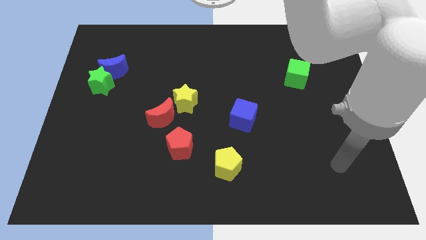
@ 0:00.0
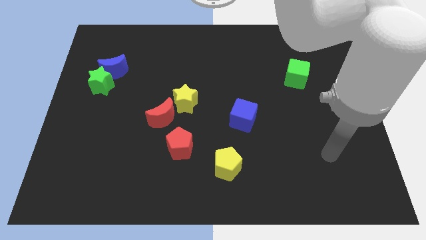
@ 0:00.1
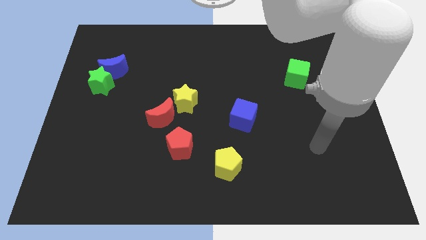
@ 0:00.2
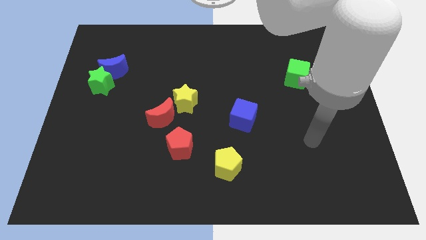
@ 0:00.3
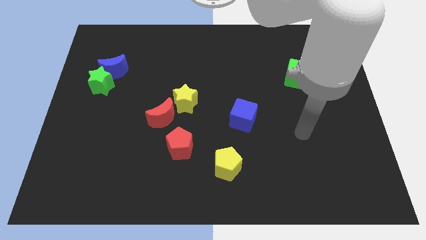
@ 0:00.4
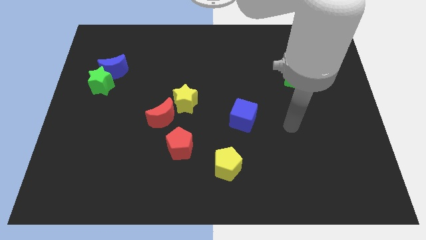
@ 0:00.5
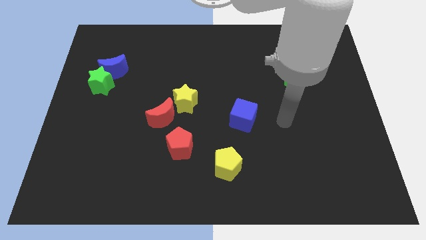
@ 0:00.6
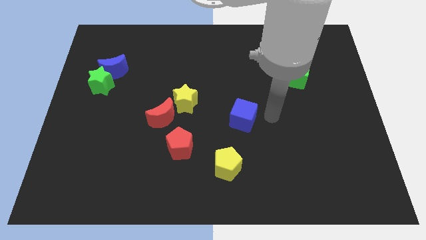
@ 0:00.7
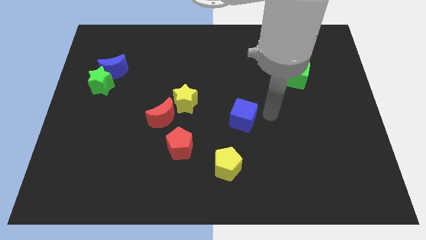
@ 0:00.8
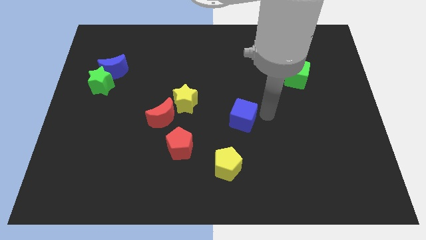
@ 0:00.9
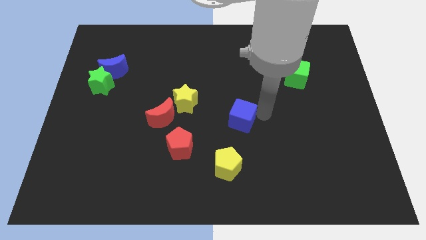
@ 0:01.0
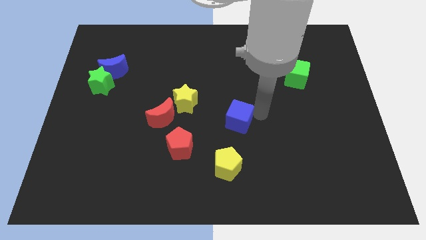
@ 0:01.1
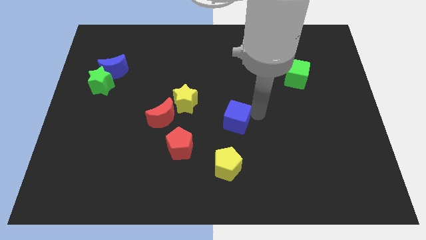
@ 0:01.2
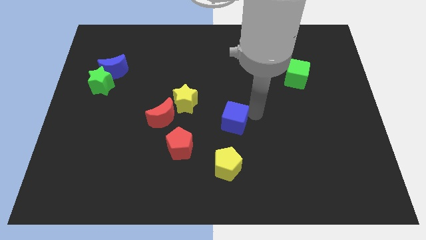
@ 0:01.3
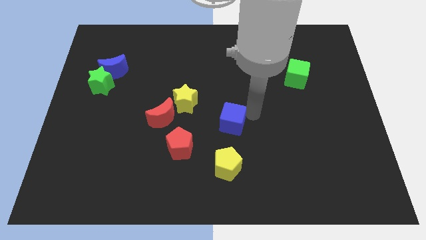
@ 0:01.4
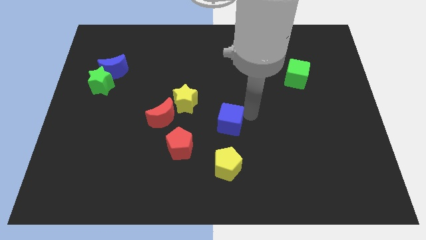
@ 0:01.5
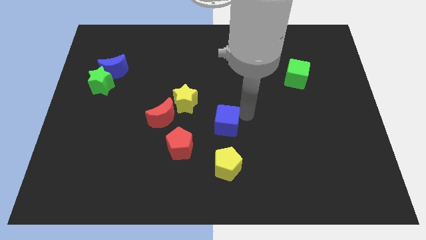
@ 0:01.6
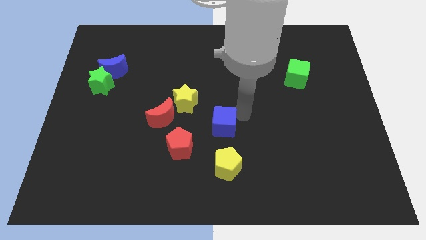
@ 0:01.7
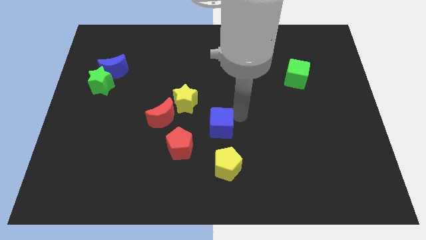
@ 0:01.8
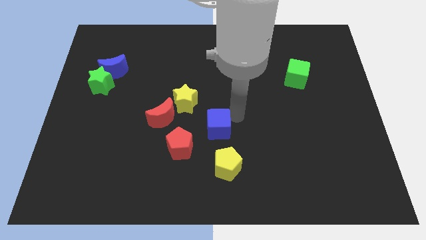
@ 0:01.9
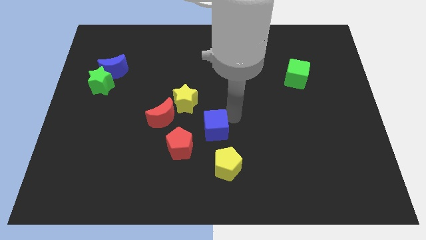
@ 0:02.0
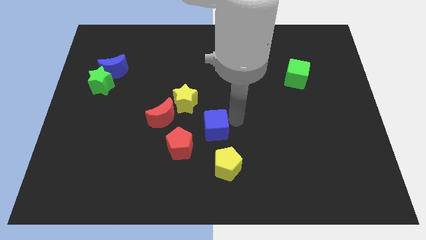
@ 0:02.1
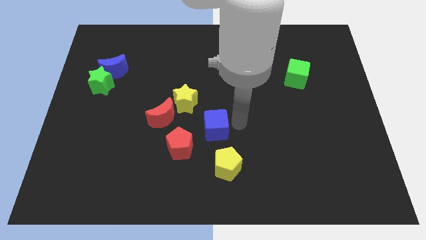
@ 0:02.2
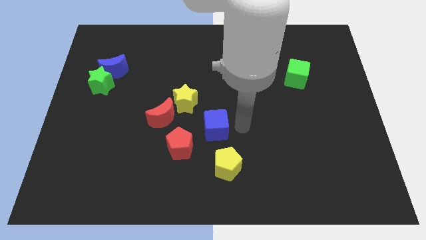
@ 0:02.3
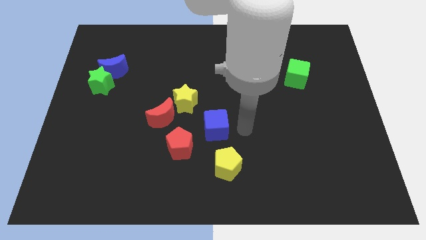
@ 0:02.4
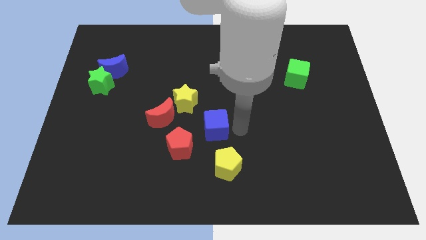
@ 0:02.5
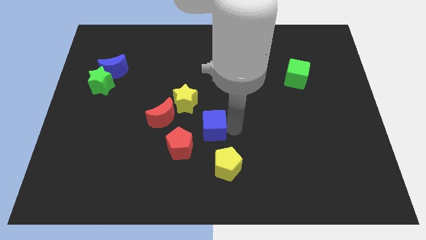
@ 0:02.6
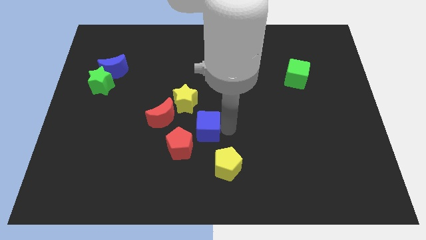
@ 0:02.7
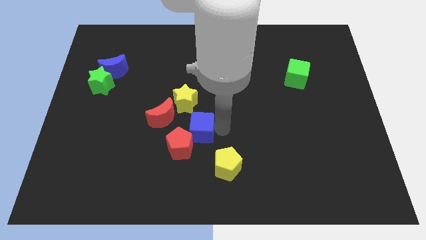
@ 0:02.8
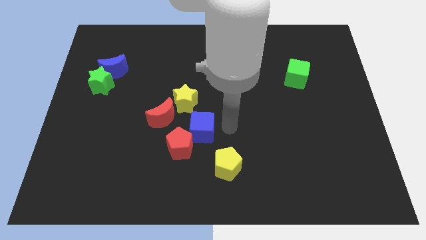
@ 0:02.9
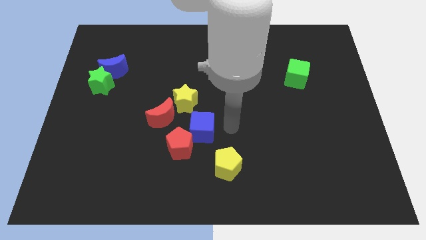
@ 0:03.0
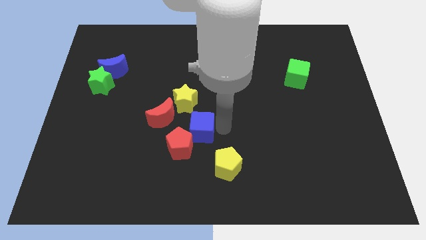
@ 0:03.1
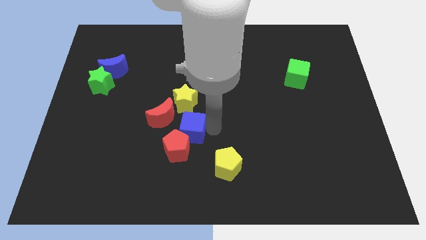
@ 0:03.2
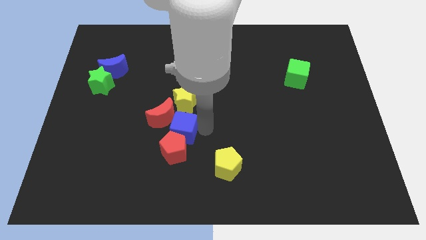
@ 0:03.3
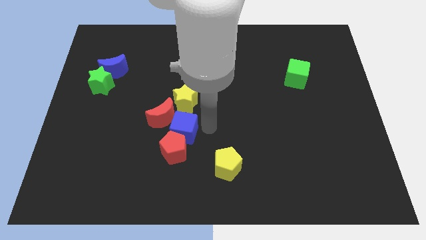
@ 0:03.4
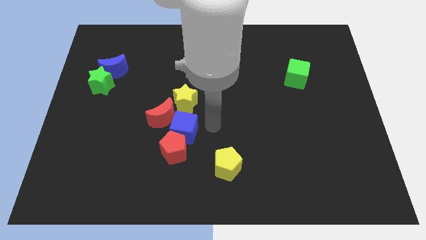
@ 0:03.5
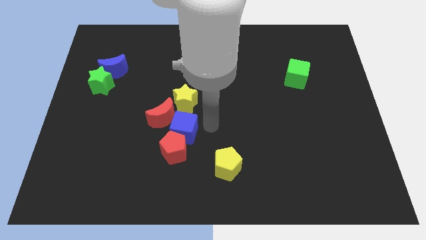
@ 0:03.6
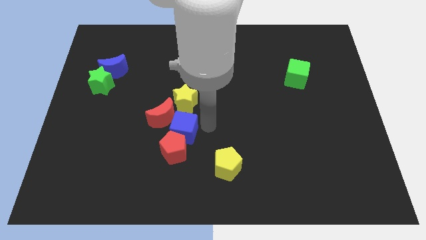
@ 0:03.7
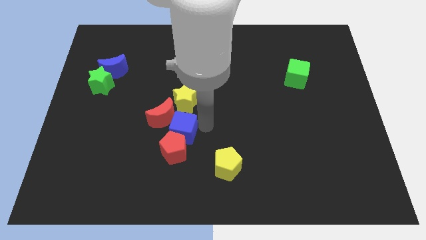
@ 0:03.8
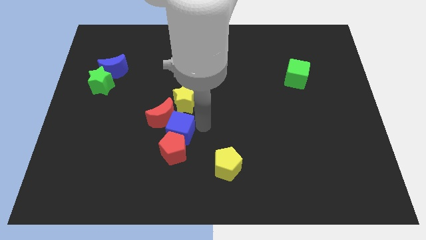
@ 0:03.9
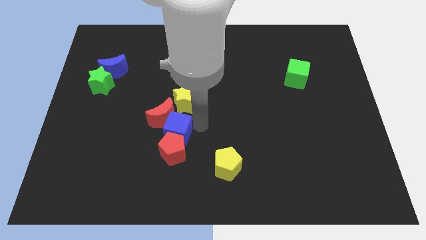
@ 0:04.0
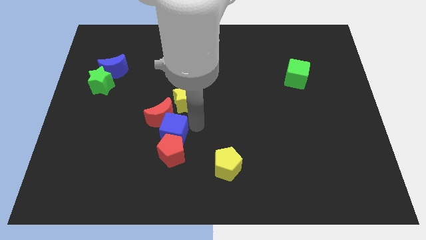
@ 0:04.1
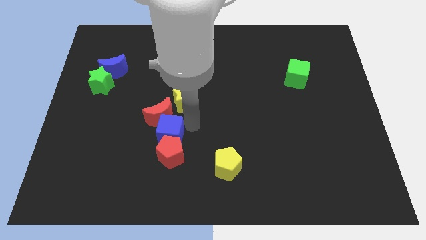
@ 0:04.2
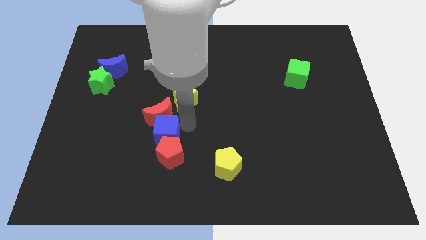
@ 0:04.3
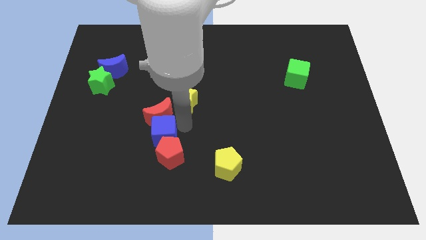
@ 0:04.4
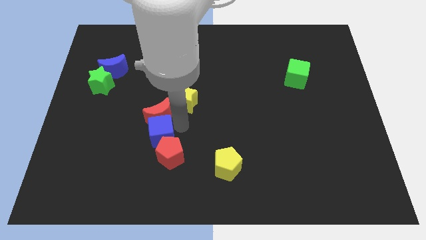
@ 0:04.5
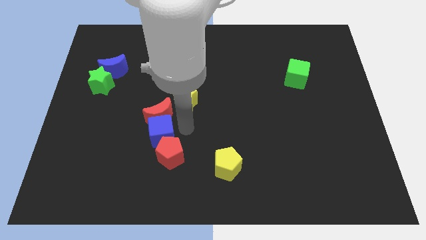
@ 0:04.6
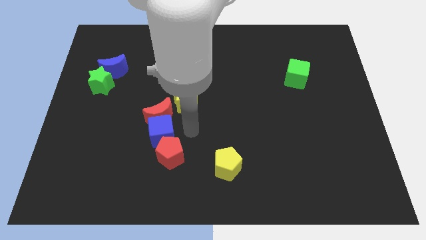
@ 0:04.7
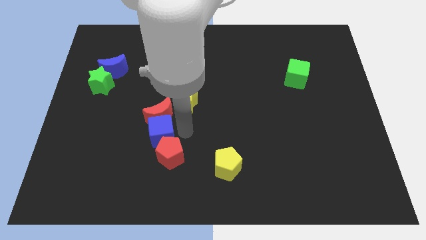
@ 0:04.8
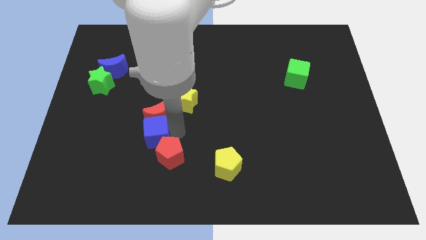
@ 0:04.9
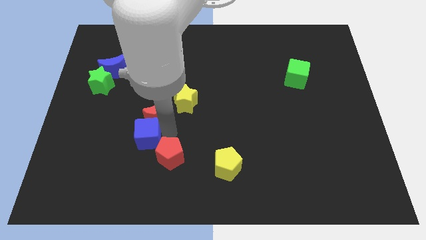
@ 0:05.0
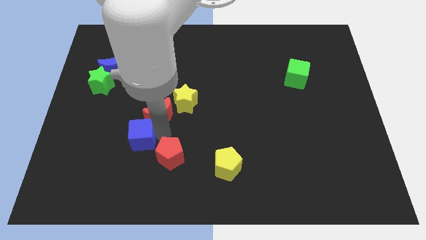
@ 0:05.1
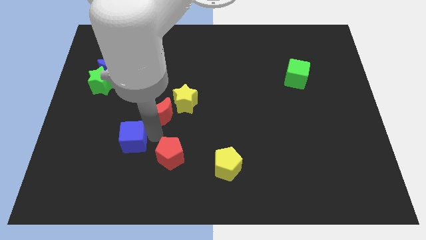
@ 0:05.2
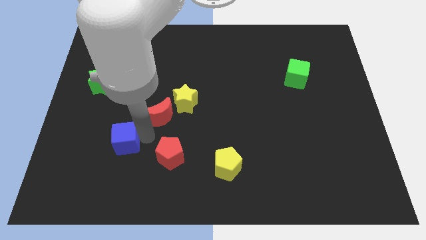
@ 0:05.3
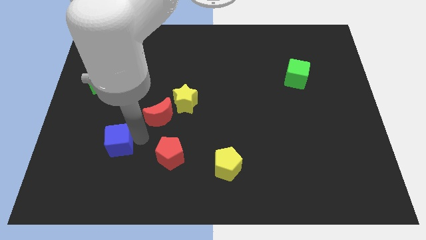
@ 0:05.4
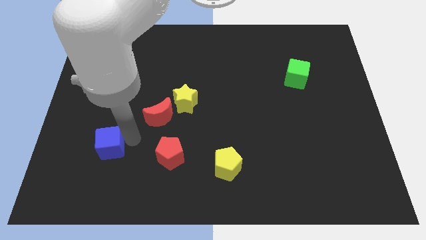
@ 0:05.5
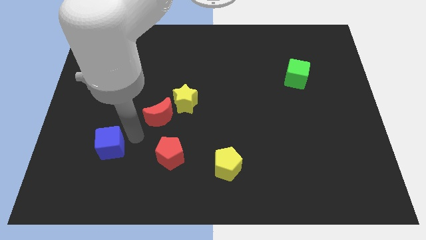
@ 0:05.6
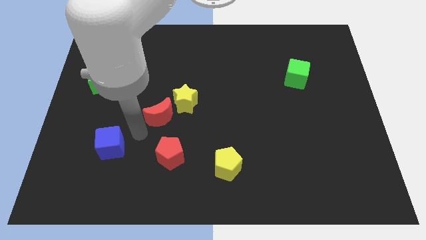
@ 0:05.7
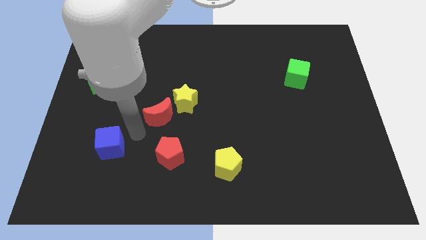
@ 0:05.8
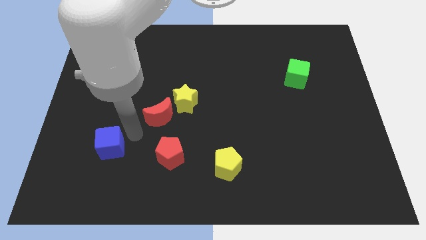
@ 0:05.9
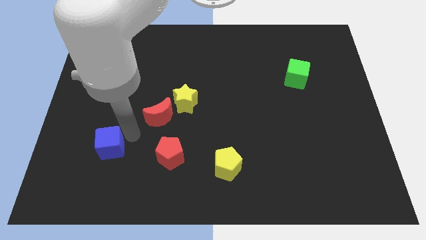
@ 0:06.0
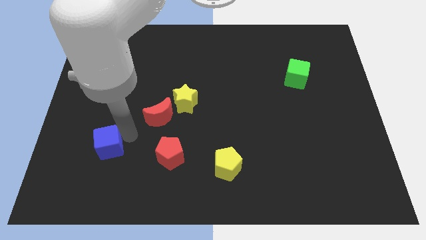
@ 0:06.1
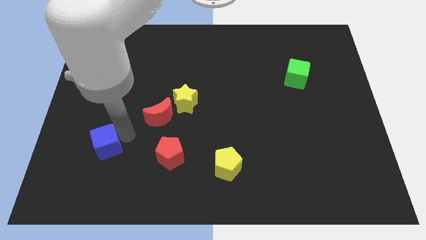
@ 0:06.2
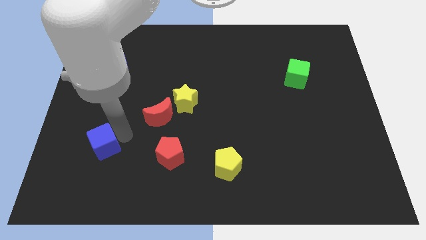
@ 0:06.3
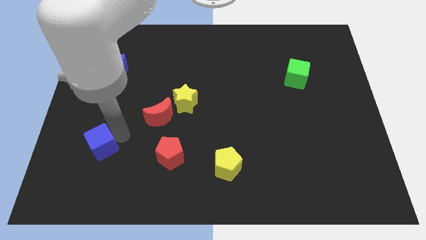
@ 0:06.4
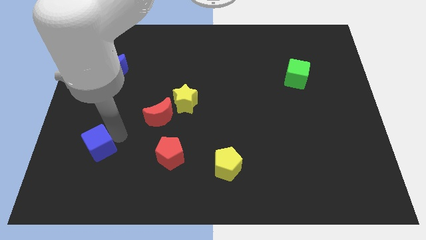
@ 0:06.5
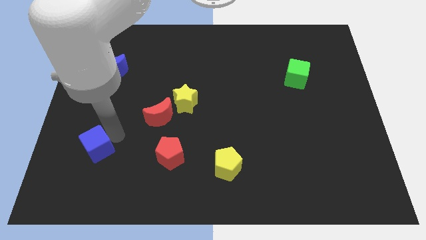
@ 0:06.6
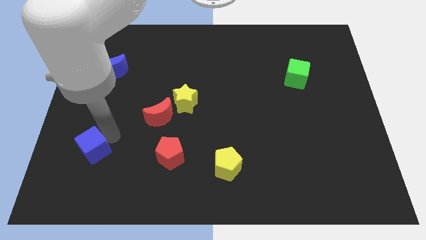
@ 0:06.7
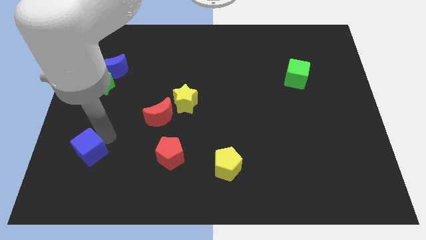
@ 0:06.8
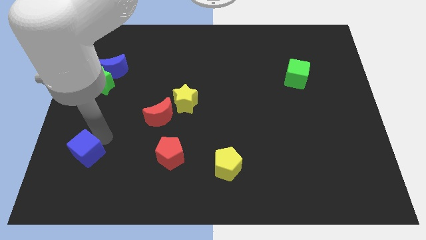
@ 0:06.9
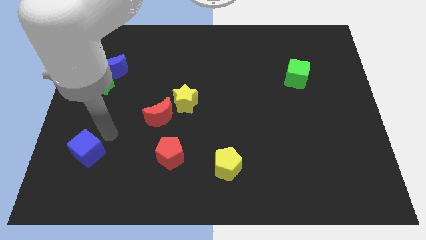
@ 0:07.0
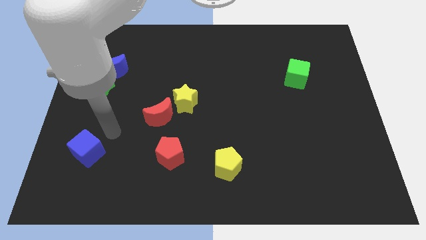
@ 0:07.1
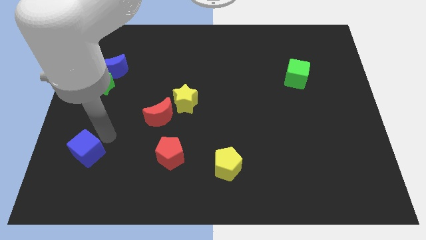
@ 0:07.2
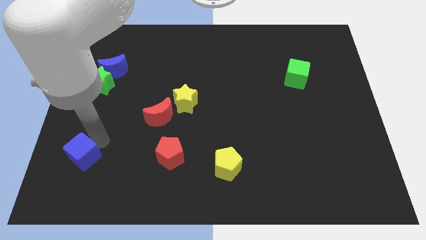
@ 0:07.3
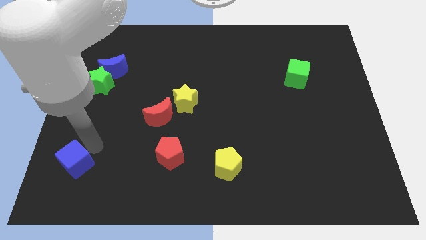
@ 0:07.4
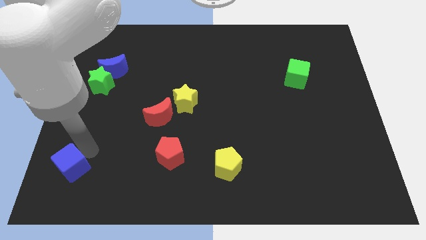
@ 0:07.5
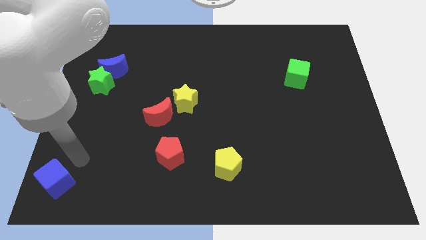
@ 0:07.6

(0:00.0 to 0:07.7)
push the blue cube to the lower left corner
